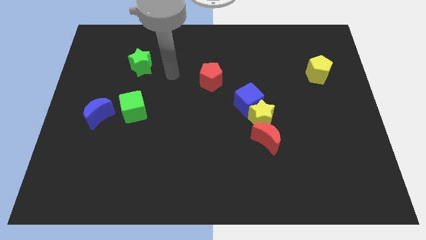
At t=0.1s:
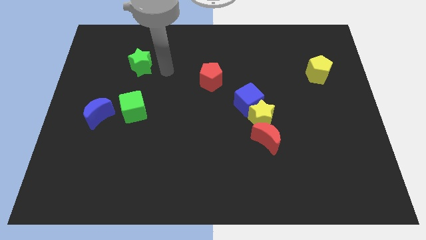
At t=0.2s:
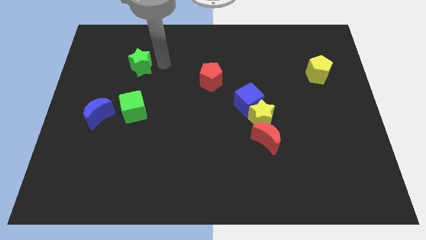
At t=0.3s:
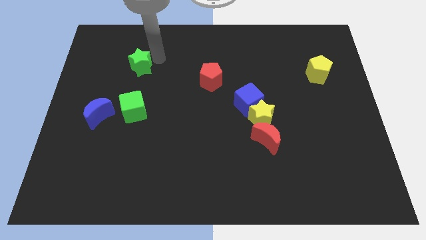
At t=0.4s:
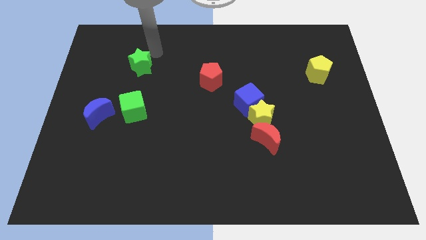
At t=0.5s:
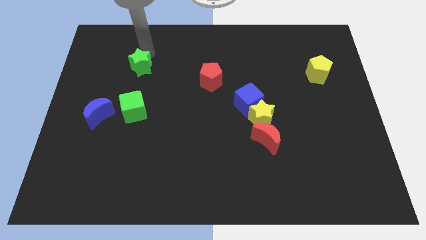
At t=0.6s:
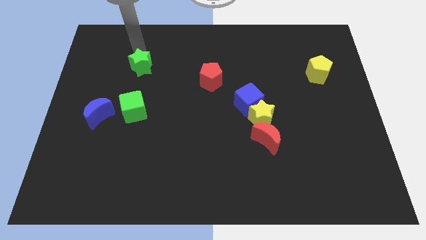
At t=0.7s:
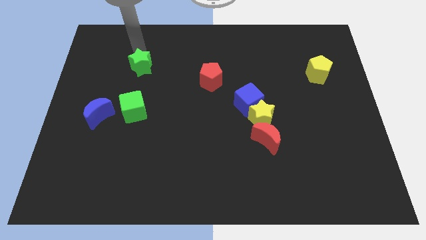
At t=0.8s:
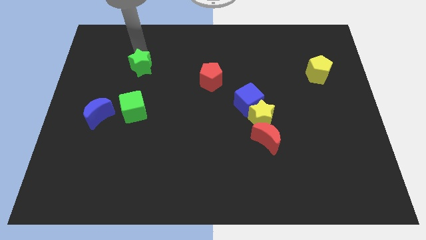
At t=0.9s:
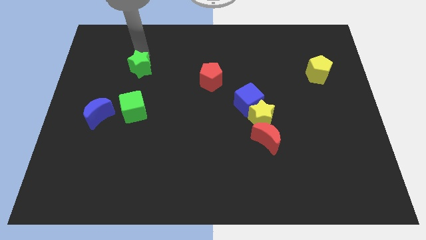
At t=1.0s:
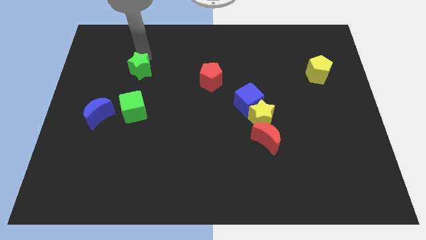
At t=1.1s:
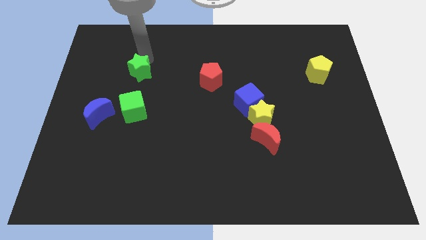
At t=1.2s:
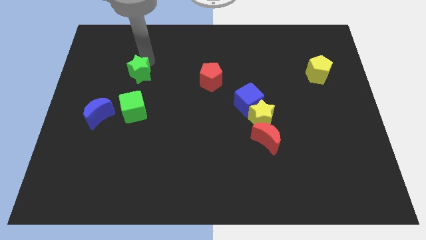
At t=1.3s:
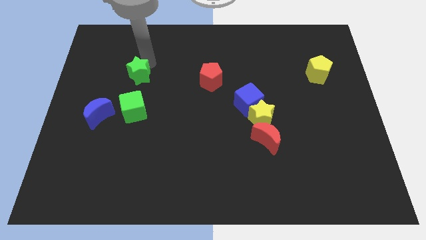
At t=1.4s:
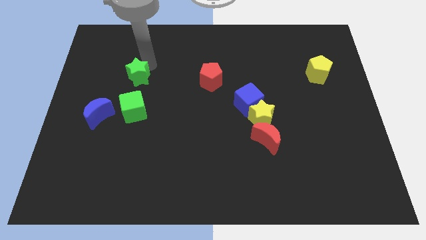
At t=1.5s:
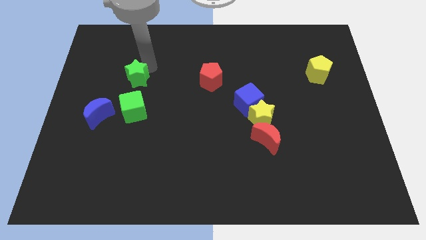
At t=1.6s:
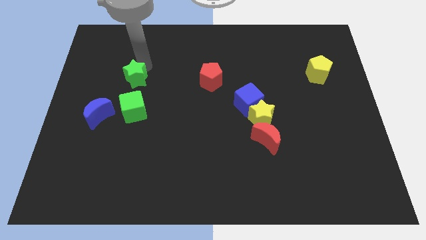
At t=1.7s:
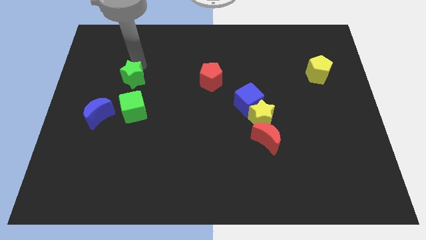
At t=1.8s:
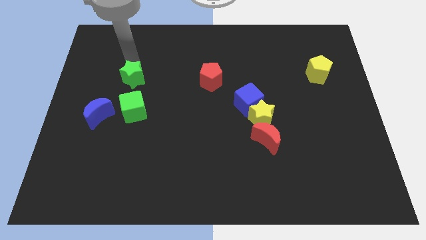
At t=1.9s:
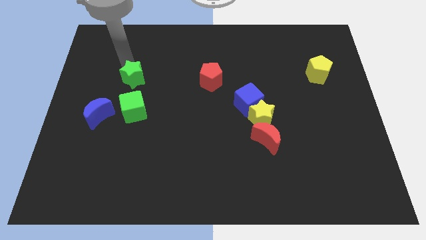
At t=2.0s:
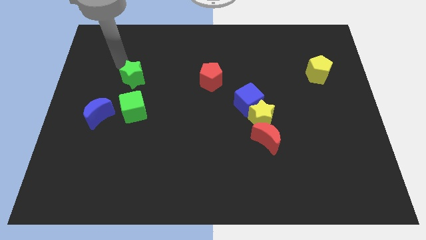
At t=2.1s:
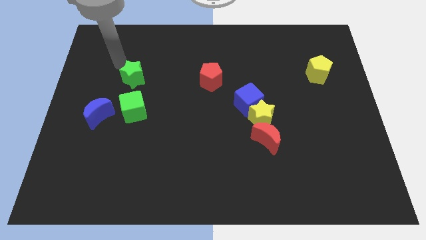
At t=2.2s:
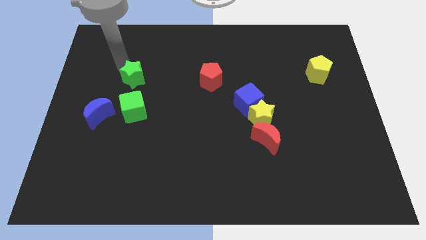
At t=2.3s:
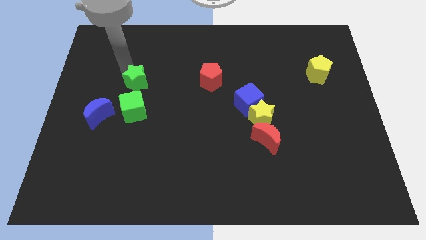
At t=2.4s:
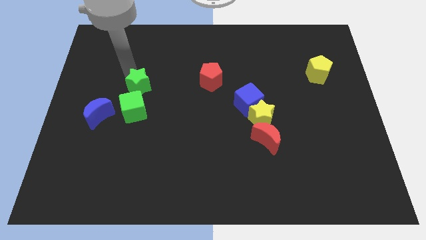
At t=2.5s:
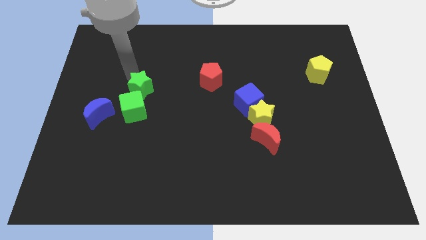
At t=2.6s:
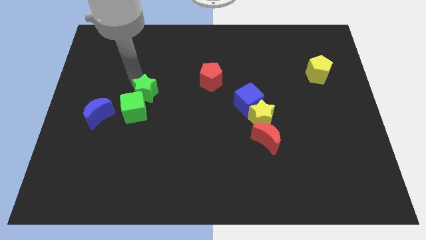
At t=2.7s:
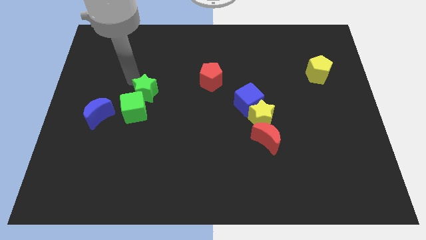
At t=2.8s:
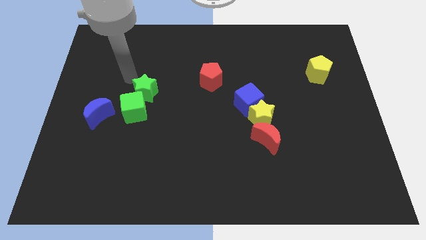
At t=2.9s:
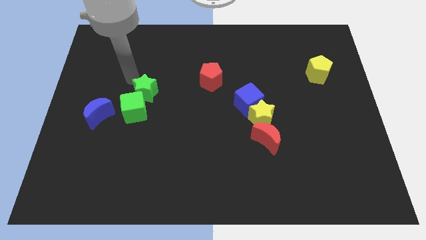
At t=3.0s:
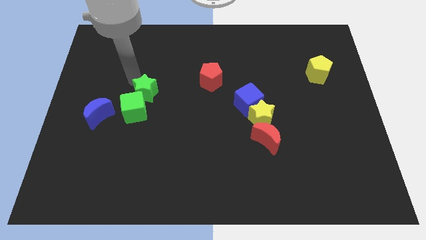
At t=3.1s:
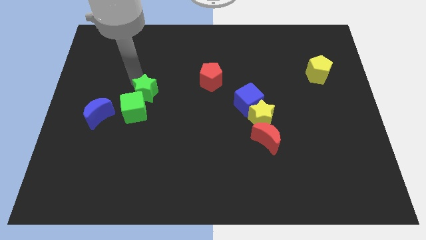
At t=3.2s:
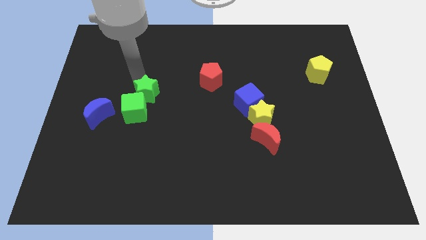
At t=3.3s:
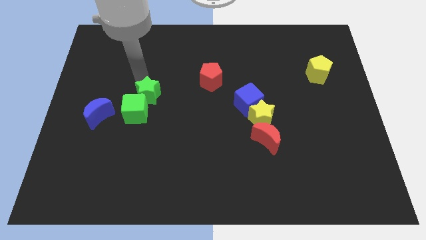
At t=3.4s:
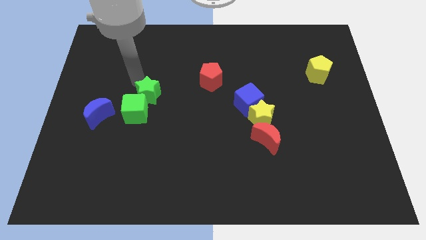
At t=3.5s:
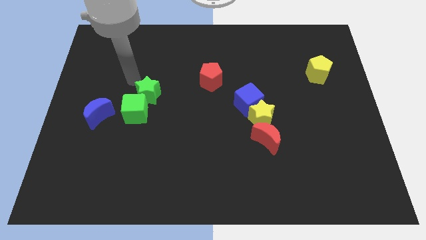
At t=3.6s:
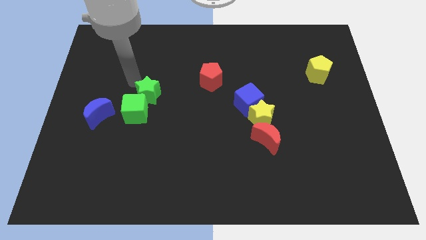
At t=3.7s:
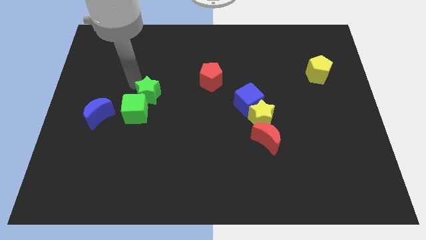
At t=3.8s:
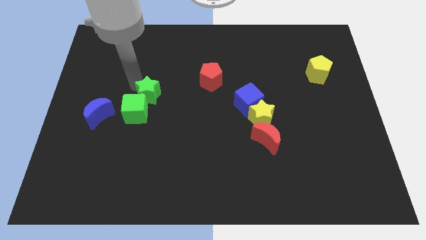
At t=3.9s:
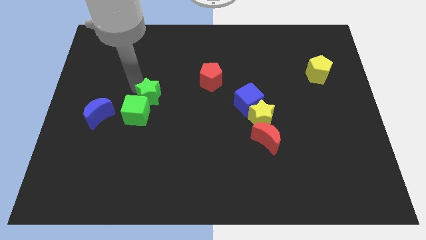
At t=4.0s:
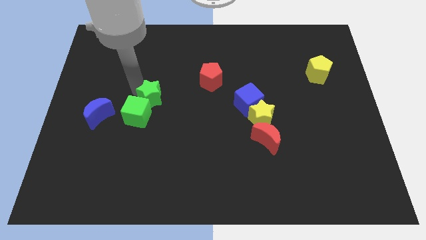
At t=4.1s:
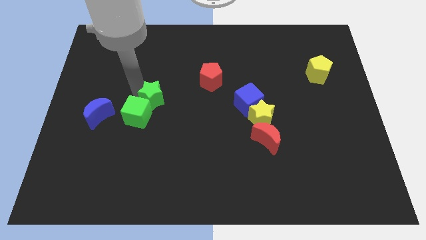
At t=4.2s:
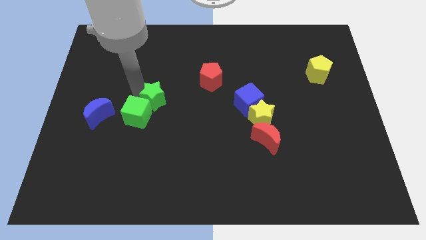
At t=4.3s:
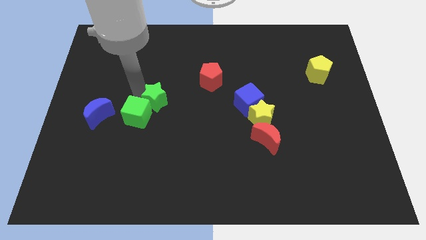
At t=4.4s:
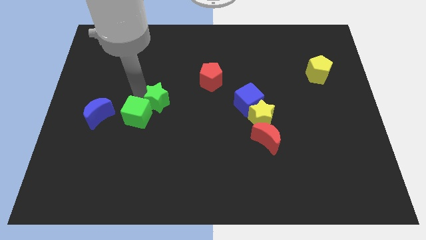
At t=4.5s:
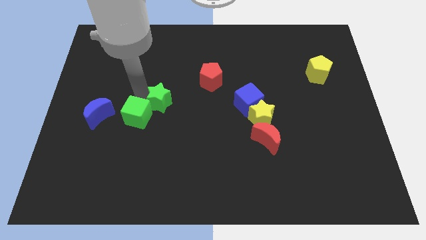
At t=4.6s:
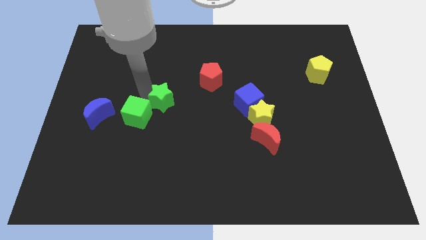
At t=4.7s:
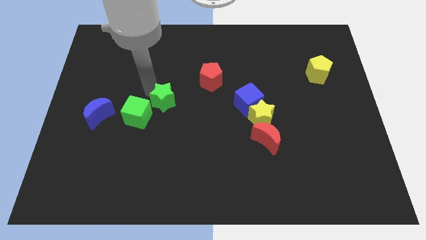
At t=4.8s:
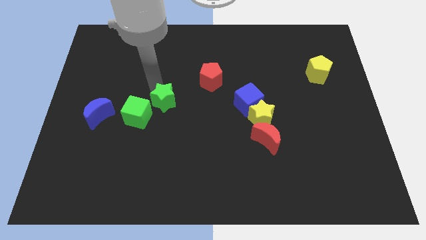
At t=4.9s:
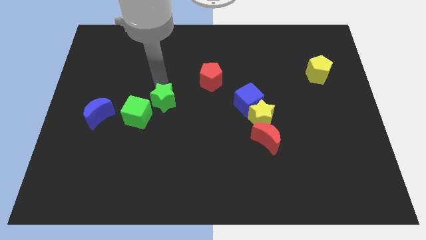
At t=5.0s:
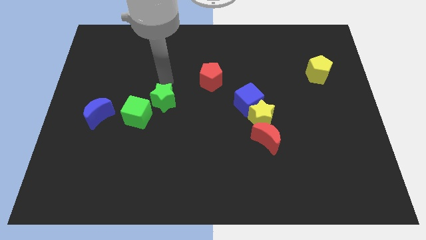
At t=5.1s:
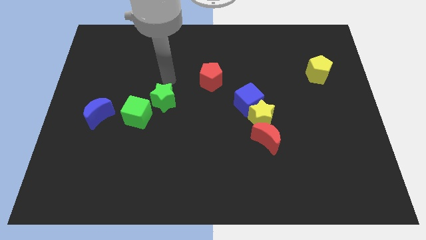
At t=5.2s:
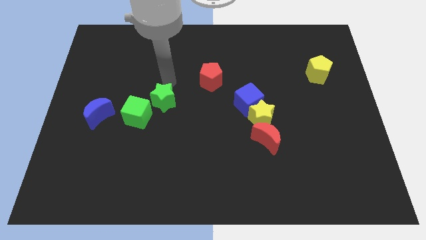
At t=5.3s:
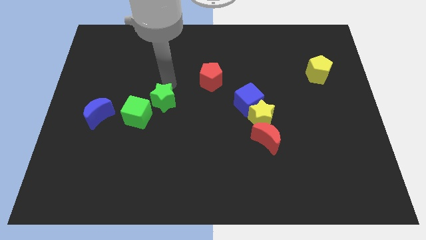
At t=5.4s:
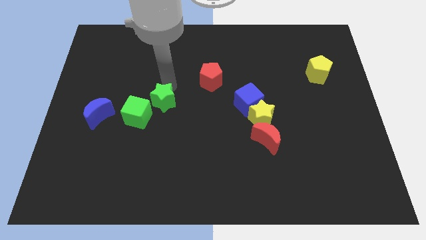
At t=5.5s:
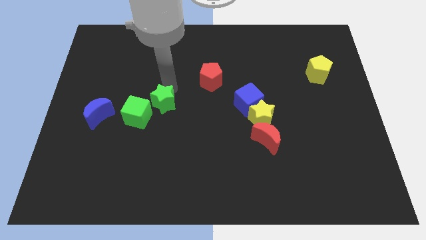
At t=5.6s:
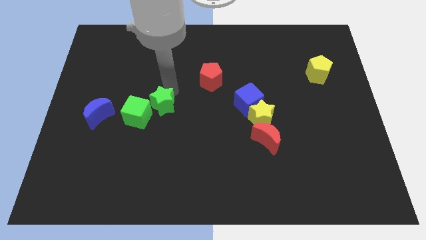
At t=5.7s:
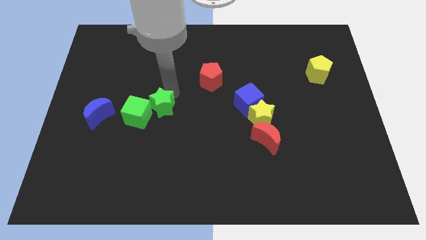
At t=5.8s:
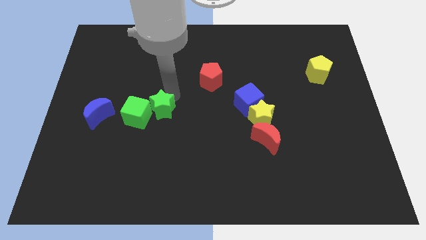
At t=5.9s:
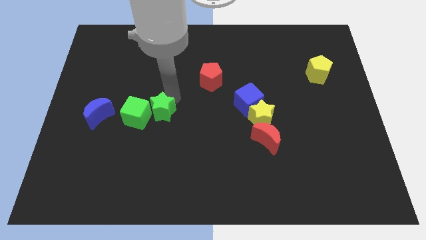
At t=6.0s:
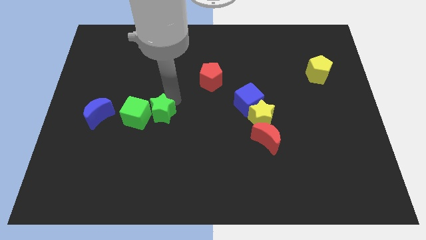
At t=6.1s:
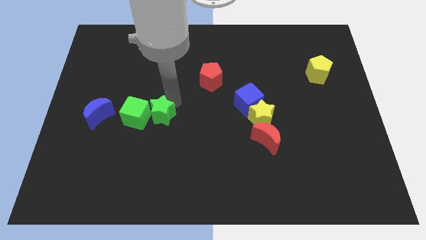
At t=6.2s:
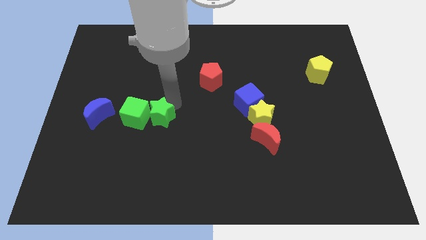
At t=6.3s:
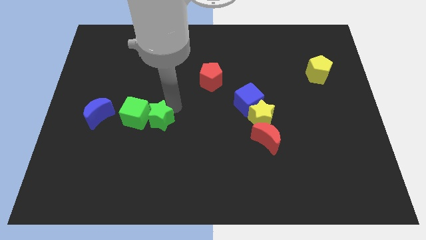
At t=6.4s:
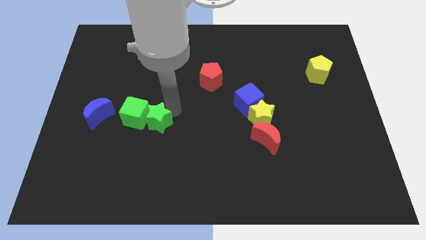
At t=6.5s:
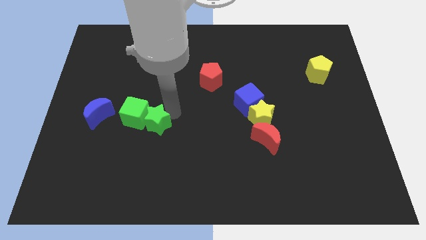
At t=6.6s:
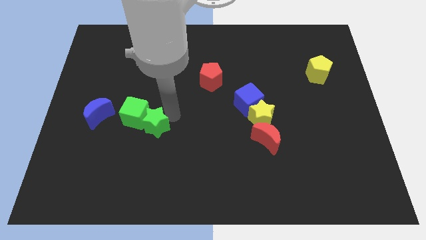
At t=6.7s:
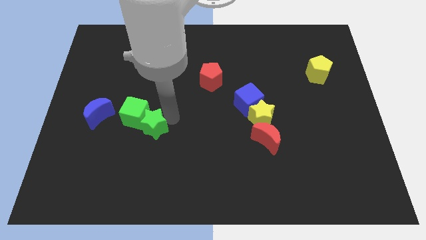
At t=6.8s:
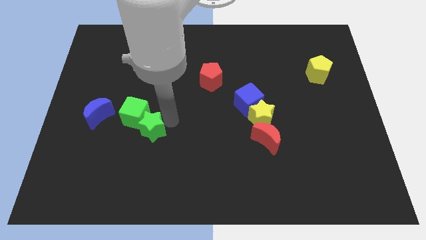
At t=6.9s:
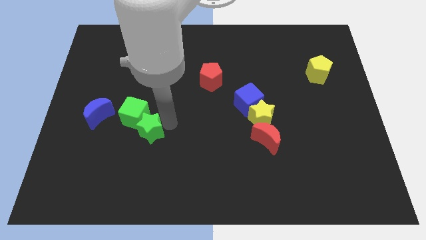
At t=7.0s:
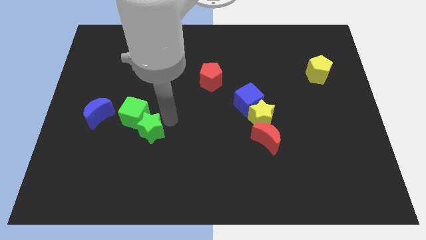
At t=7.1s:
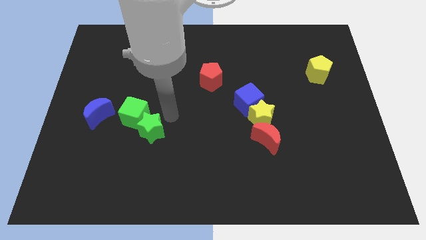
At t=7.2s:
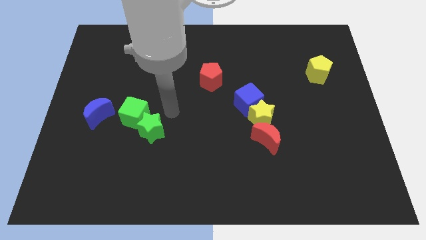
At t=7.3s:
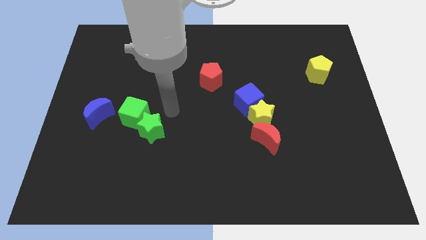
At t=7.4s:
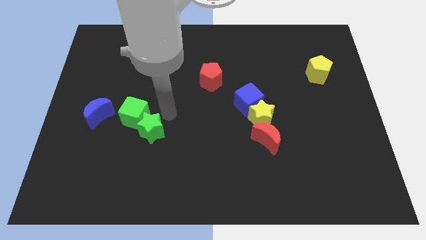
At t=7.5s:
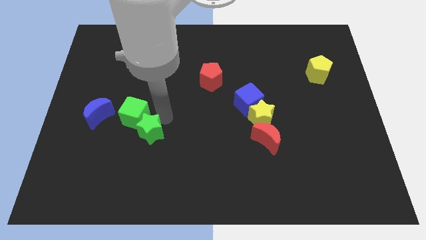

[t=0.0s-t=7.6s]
push the green star downwards

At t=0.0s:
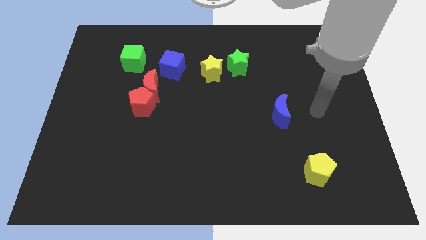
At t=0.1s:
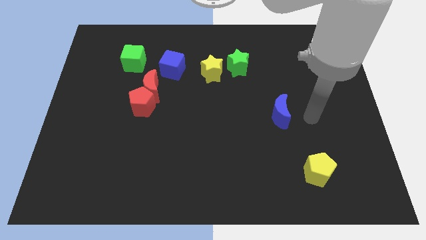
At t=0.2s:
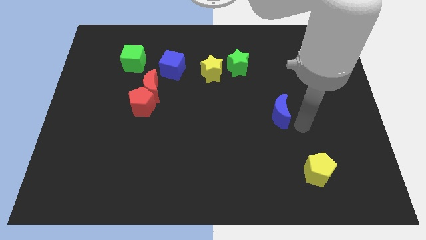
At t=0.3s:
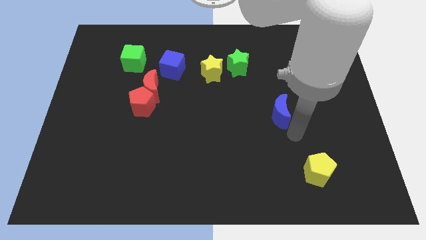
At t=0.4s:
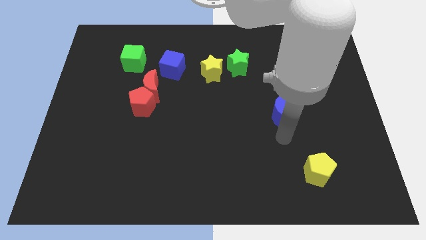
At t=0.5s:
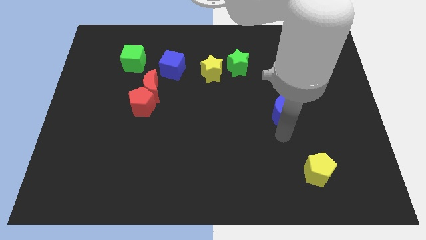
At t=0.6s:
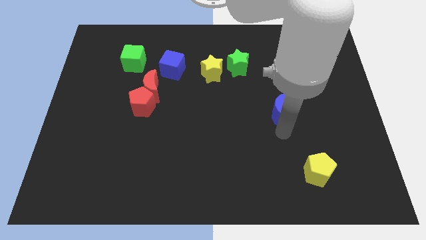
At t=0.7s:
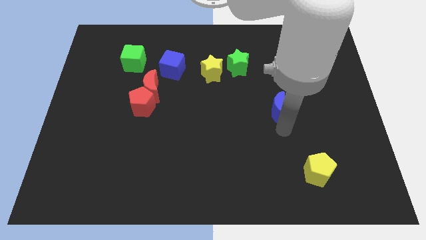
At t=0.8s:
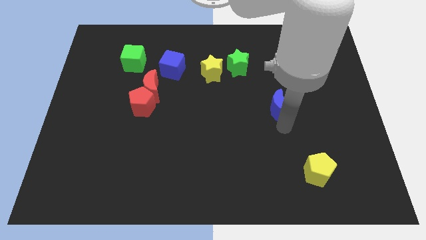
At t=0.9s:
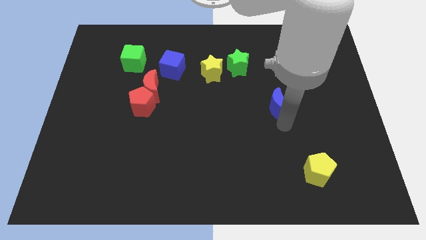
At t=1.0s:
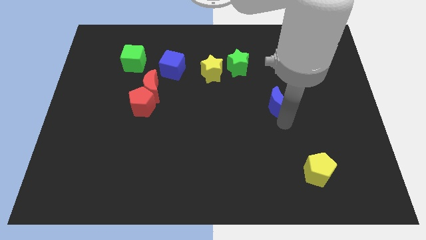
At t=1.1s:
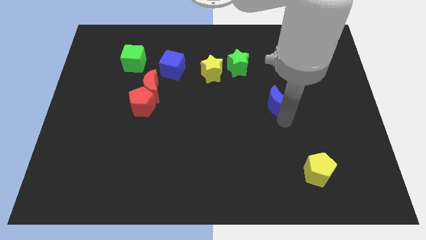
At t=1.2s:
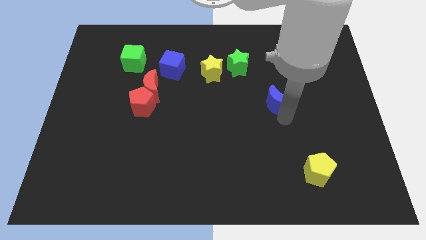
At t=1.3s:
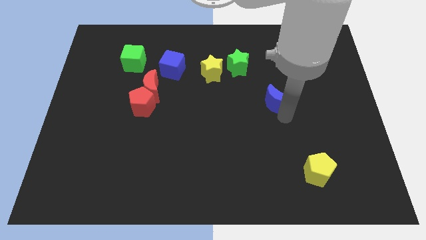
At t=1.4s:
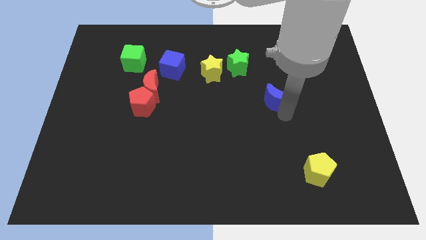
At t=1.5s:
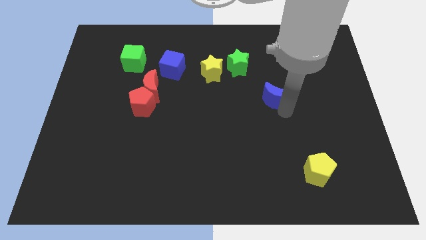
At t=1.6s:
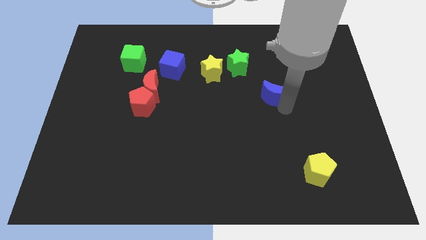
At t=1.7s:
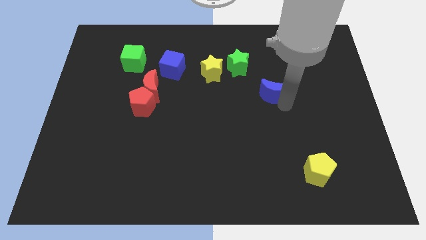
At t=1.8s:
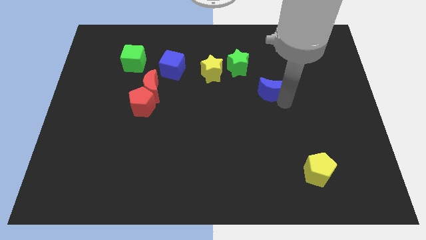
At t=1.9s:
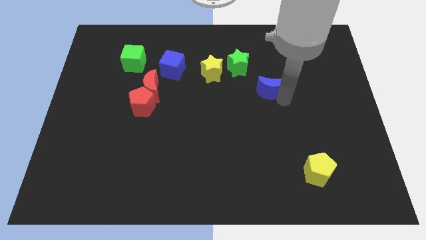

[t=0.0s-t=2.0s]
move the blue moon a bit up
